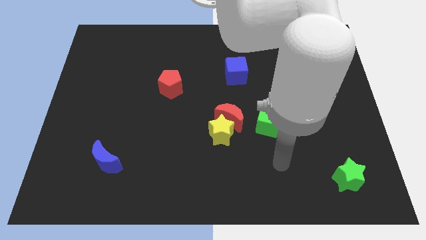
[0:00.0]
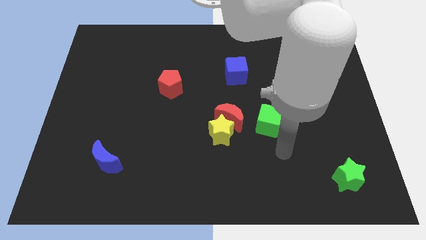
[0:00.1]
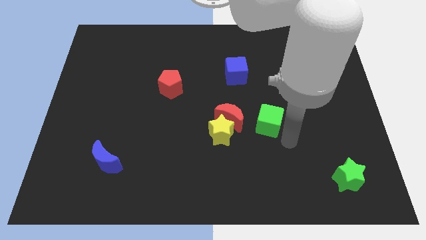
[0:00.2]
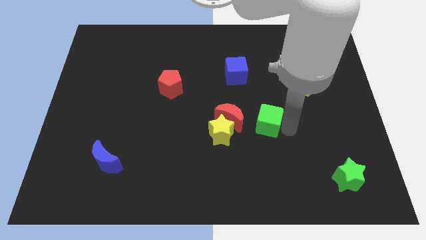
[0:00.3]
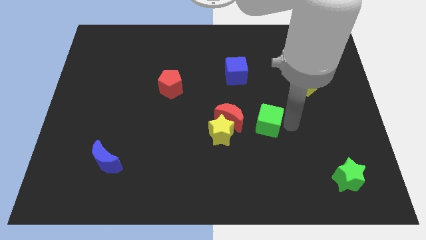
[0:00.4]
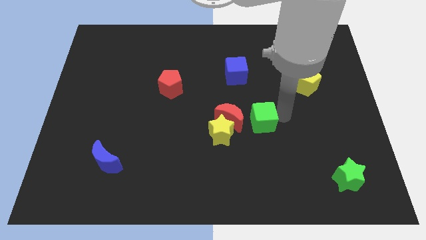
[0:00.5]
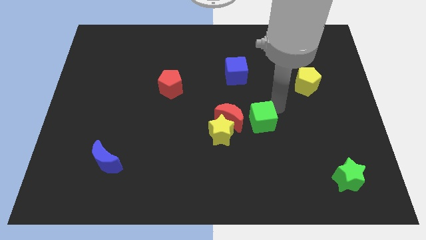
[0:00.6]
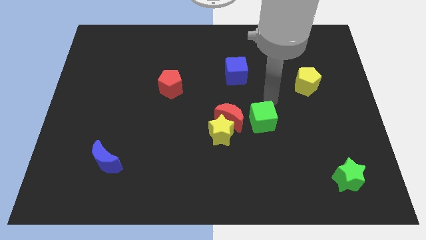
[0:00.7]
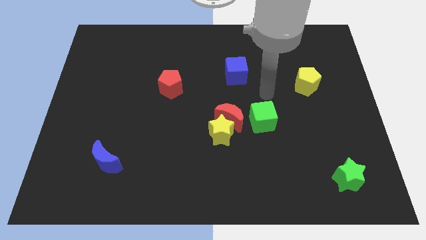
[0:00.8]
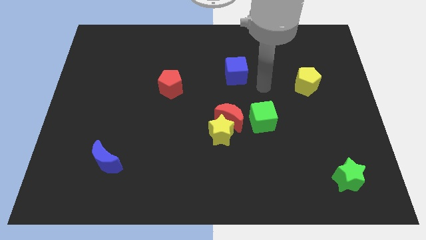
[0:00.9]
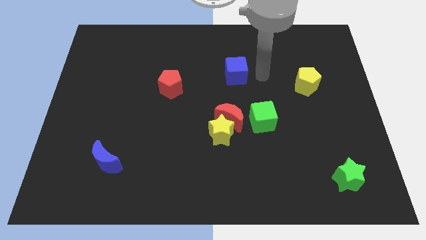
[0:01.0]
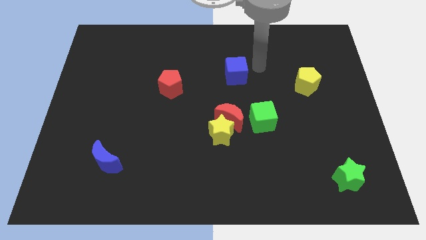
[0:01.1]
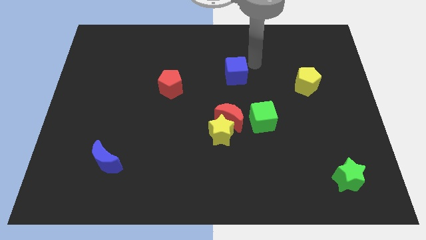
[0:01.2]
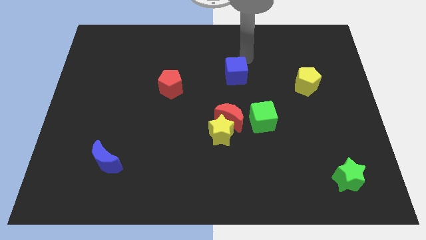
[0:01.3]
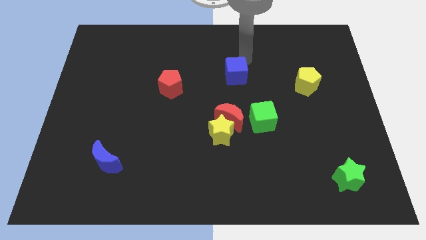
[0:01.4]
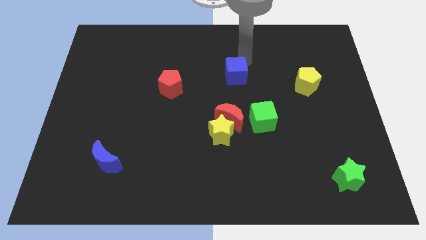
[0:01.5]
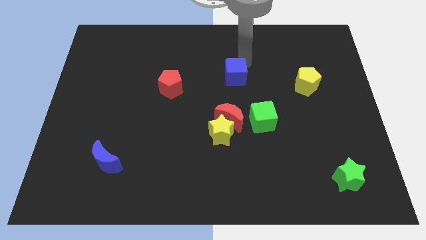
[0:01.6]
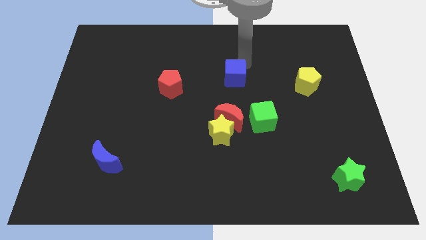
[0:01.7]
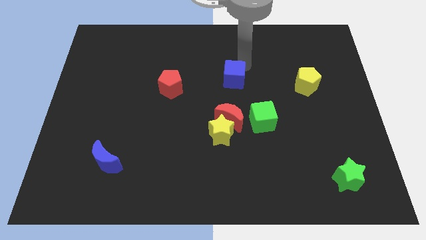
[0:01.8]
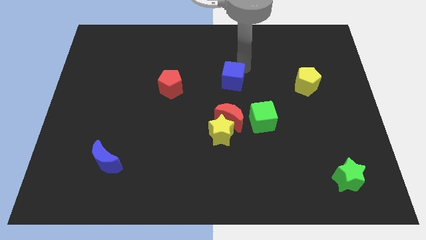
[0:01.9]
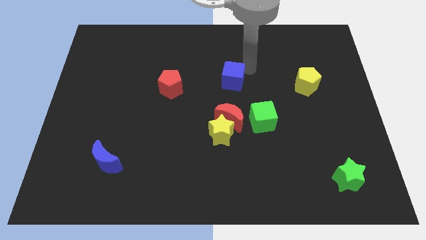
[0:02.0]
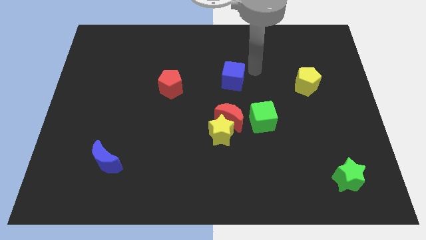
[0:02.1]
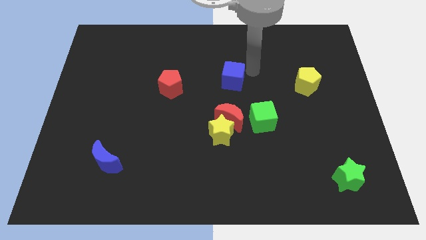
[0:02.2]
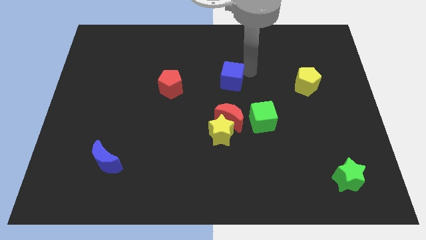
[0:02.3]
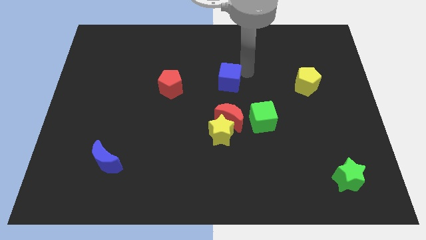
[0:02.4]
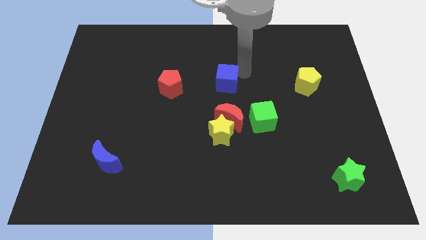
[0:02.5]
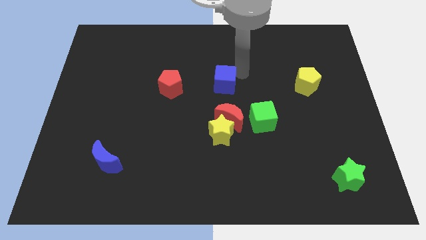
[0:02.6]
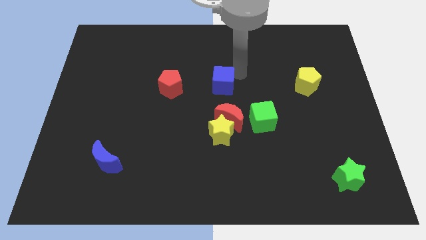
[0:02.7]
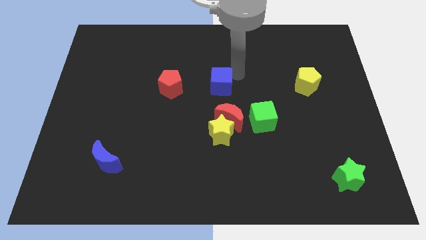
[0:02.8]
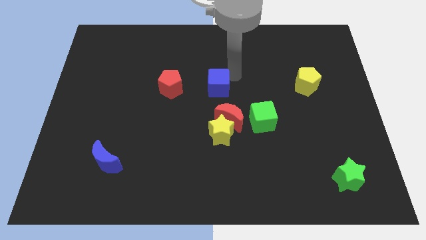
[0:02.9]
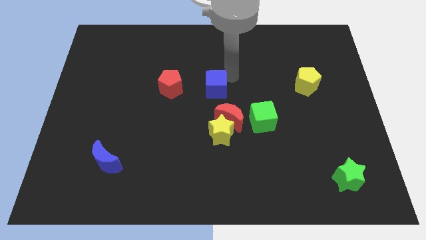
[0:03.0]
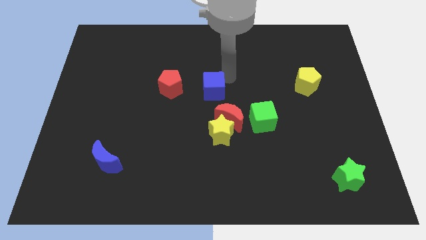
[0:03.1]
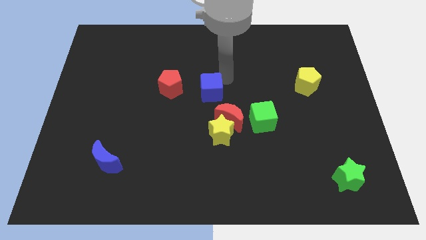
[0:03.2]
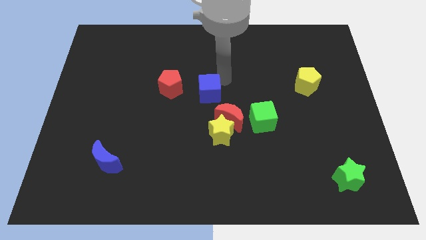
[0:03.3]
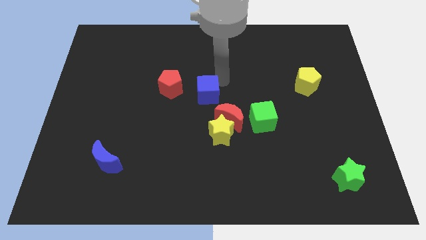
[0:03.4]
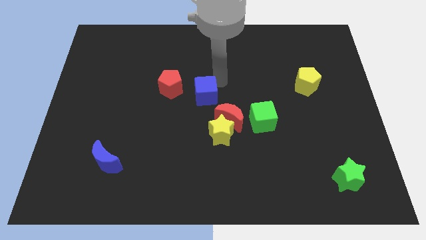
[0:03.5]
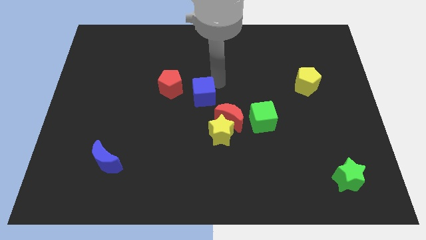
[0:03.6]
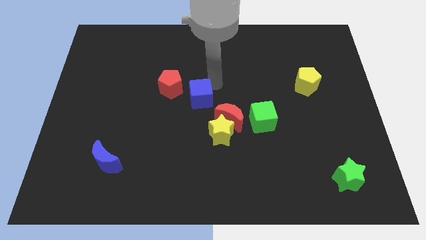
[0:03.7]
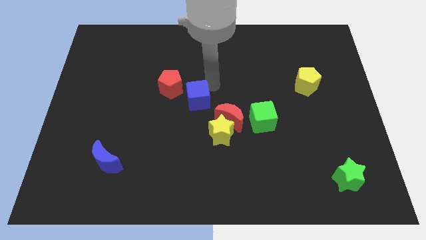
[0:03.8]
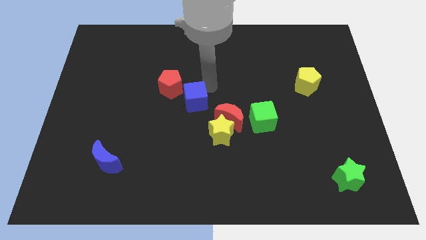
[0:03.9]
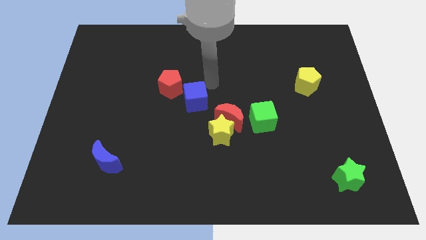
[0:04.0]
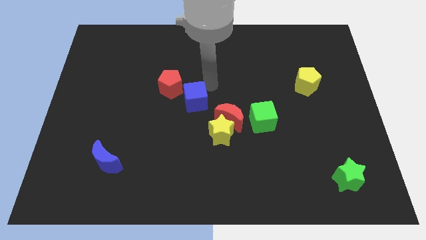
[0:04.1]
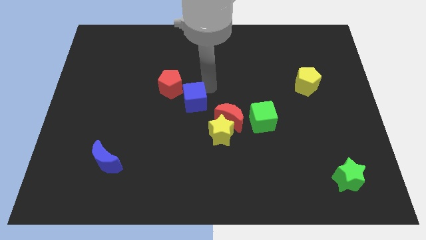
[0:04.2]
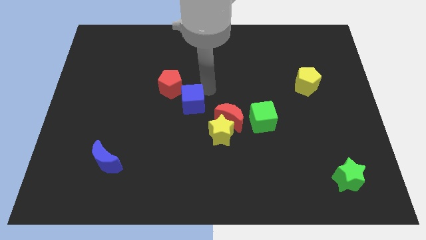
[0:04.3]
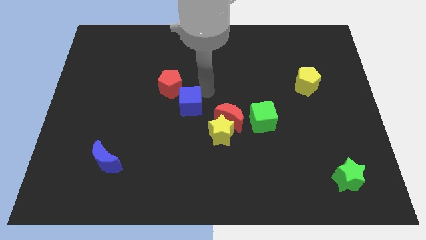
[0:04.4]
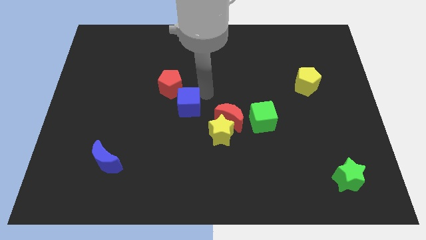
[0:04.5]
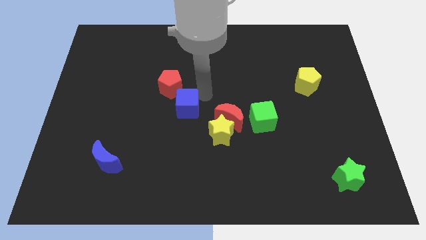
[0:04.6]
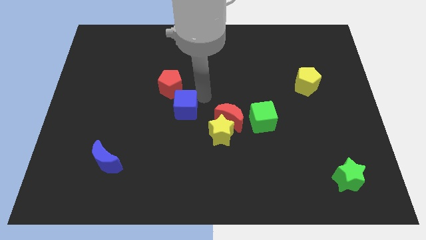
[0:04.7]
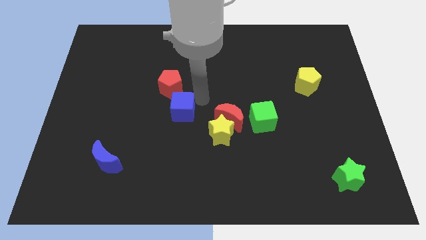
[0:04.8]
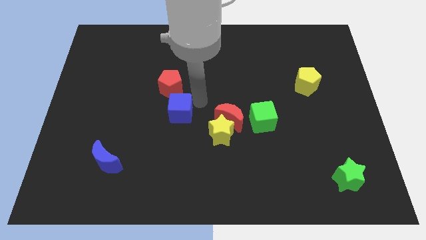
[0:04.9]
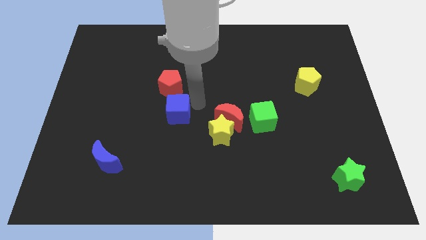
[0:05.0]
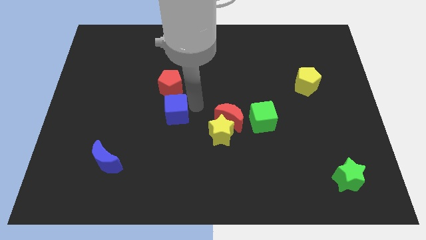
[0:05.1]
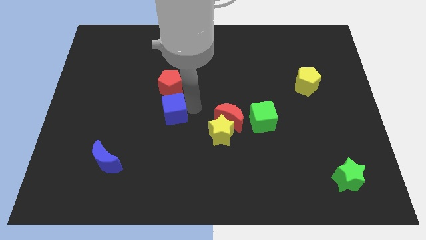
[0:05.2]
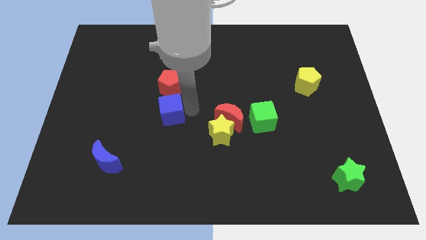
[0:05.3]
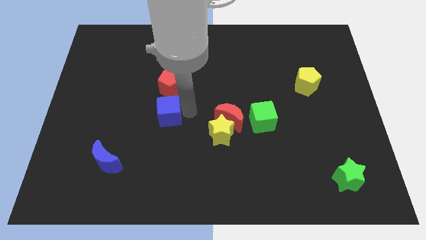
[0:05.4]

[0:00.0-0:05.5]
move the blue cube diagonally downwards and to the left

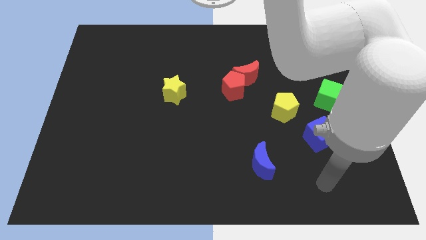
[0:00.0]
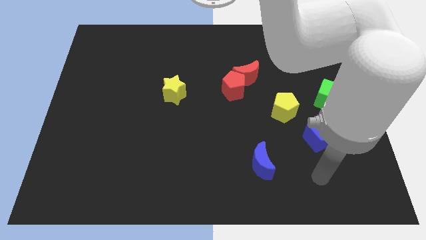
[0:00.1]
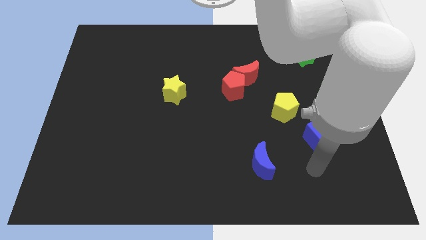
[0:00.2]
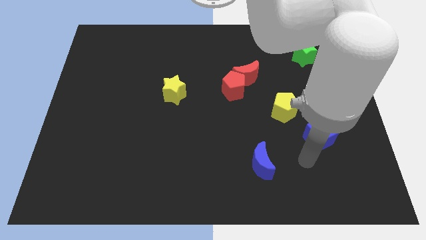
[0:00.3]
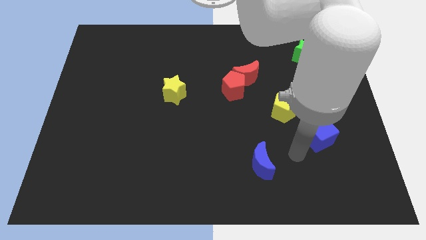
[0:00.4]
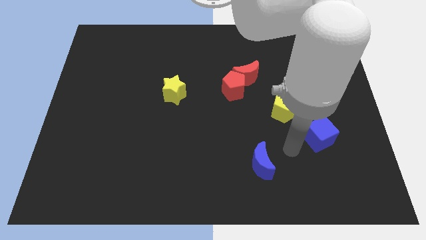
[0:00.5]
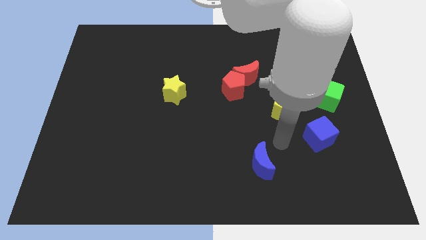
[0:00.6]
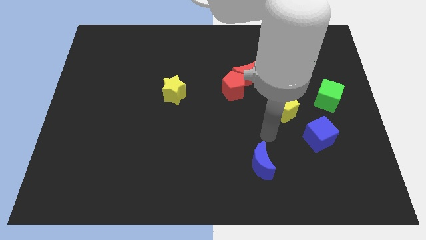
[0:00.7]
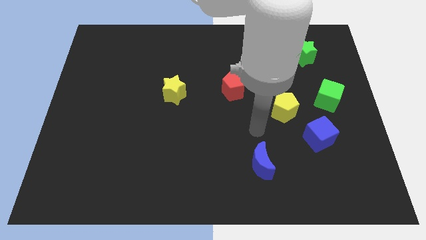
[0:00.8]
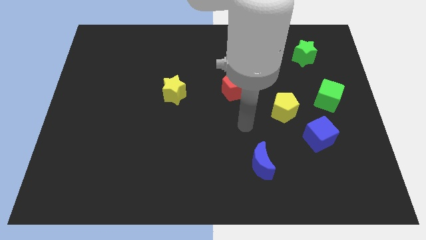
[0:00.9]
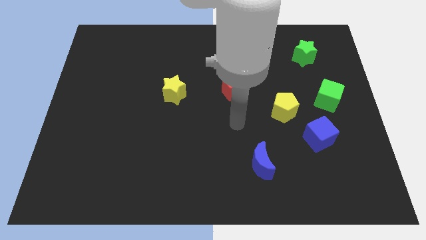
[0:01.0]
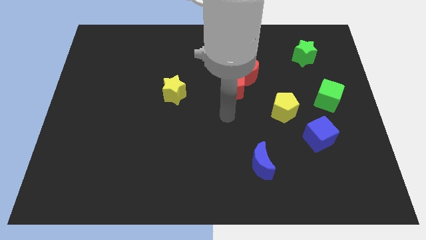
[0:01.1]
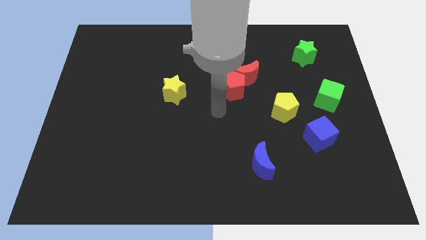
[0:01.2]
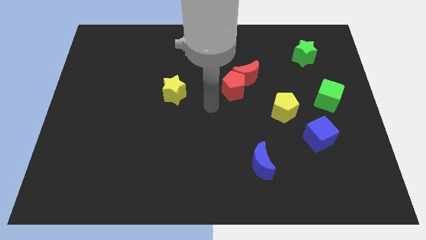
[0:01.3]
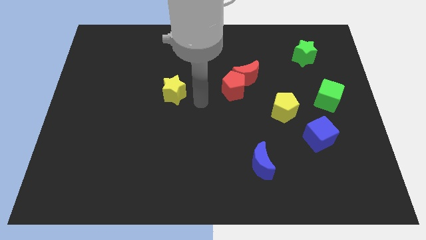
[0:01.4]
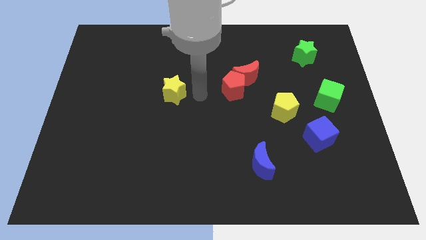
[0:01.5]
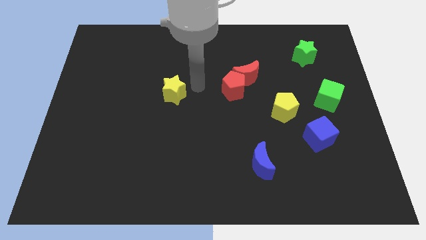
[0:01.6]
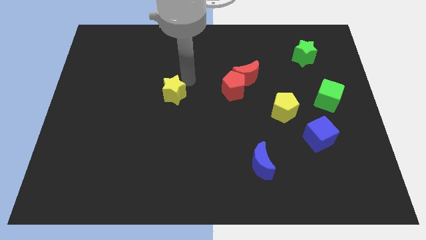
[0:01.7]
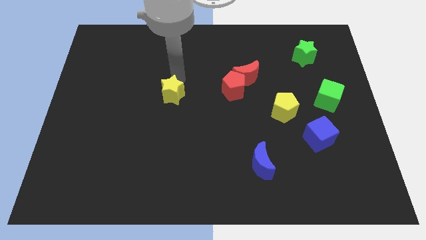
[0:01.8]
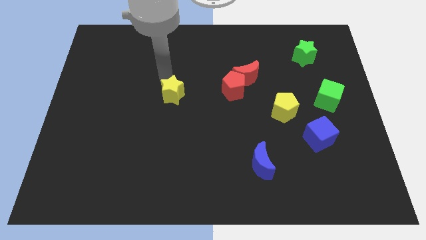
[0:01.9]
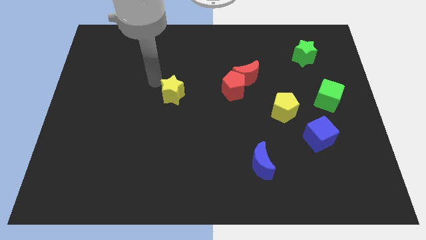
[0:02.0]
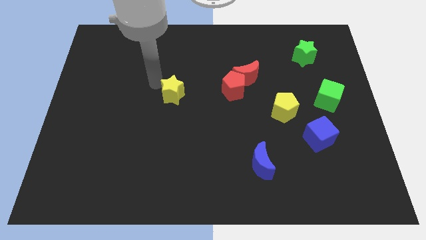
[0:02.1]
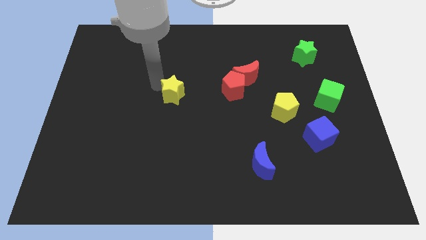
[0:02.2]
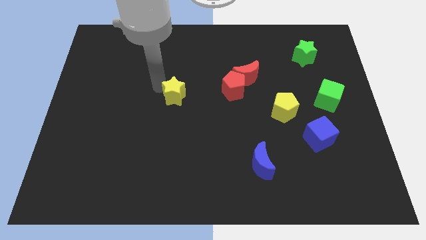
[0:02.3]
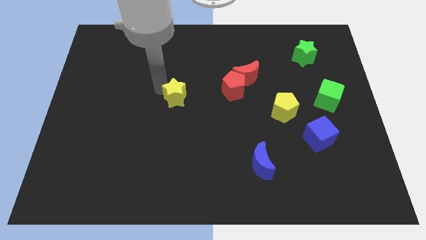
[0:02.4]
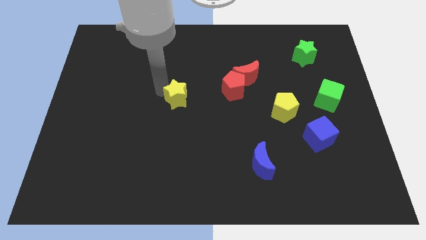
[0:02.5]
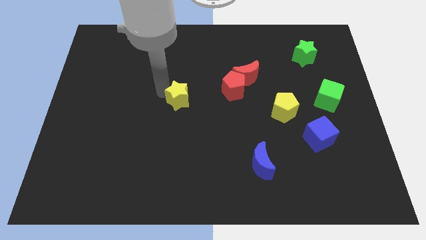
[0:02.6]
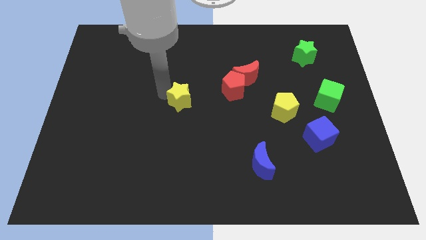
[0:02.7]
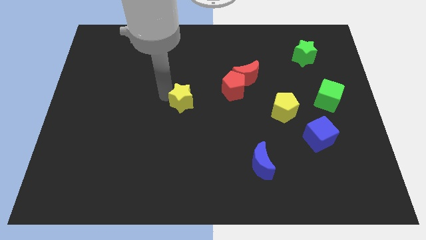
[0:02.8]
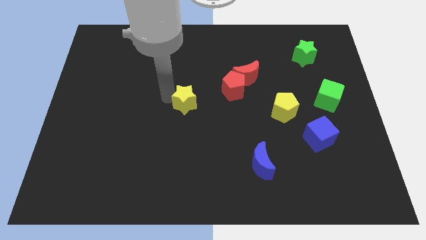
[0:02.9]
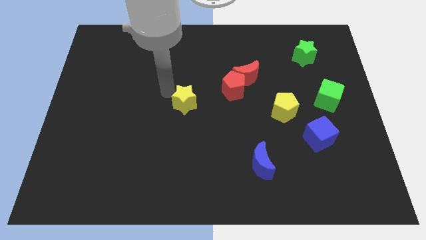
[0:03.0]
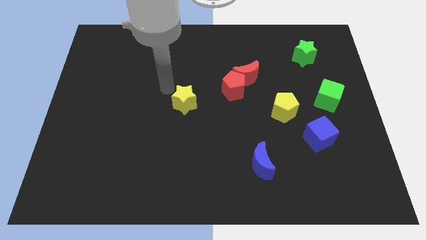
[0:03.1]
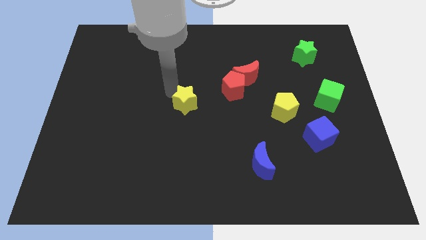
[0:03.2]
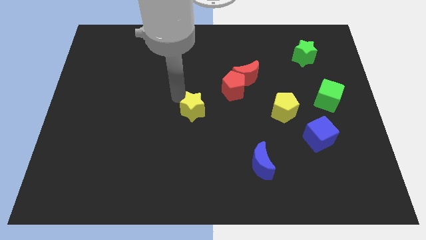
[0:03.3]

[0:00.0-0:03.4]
slightly slide the yellow star downwards and right diagonally
